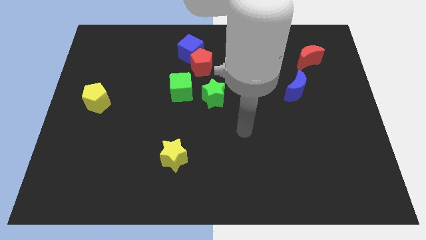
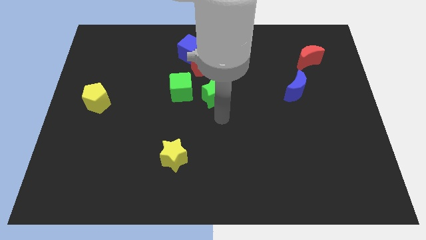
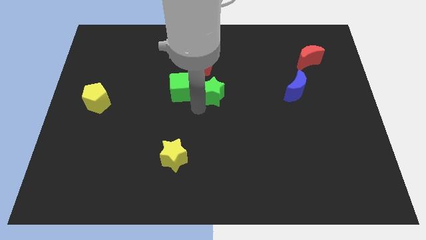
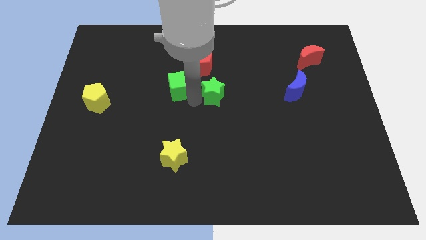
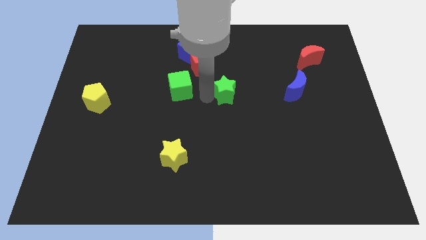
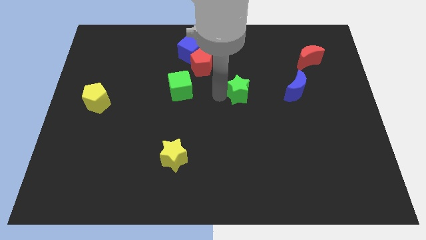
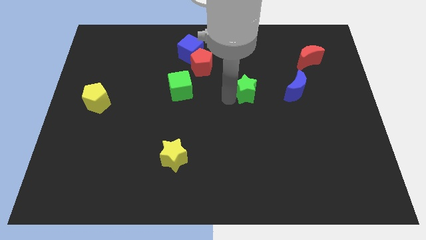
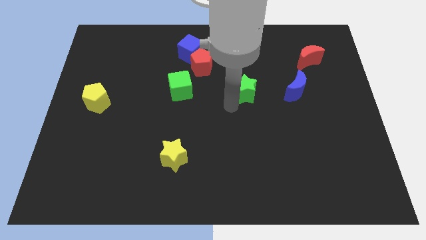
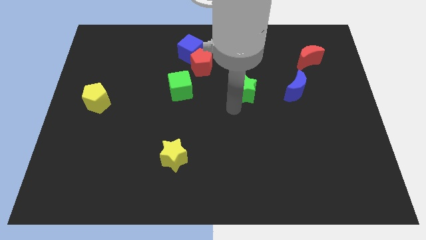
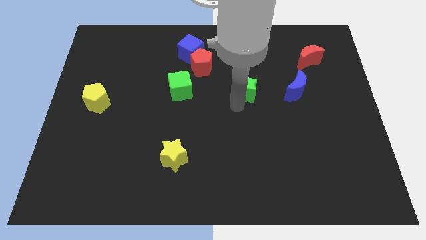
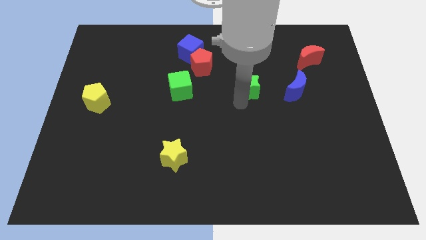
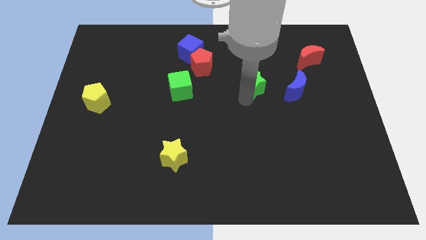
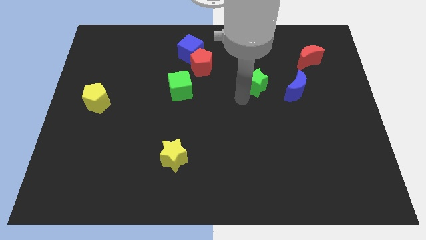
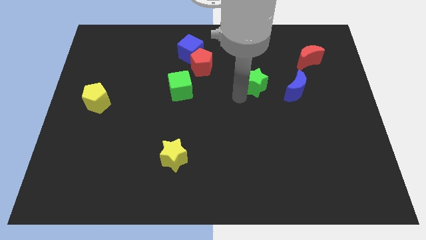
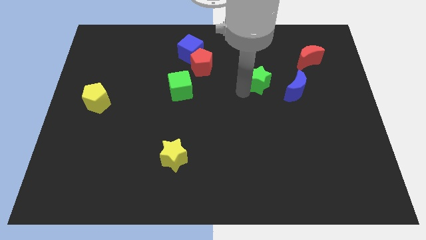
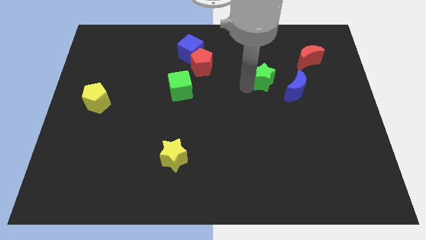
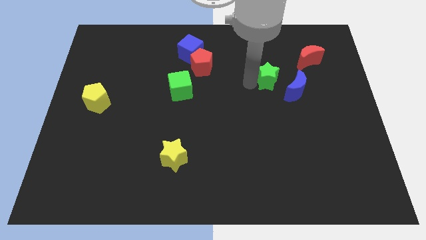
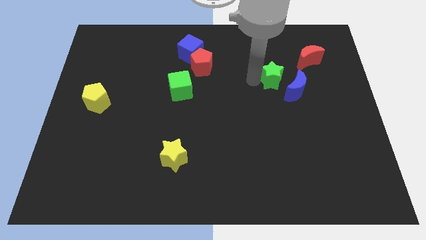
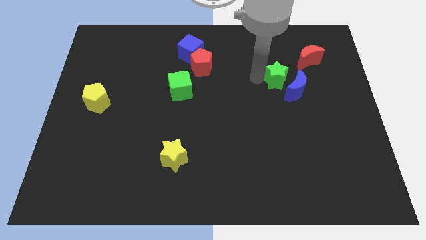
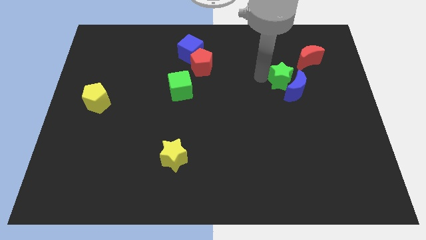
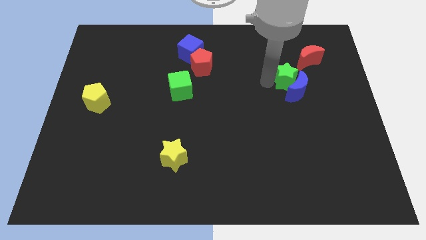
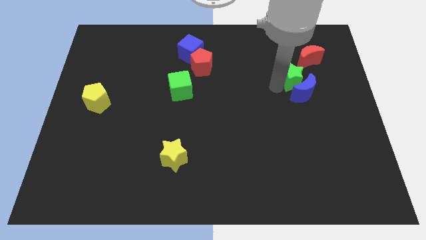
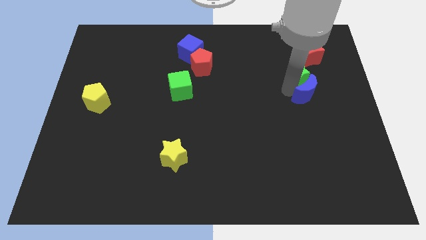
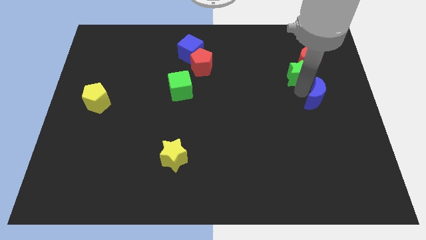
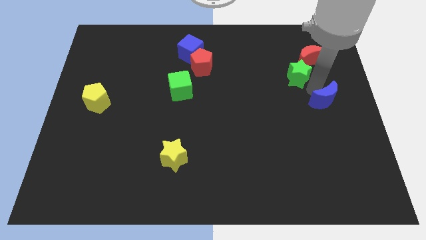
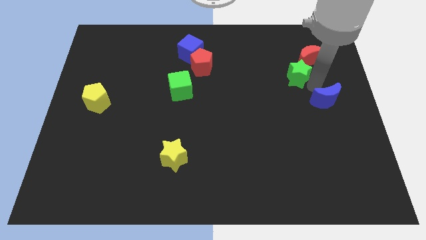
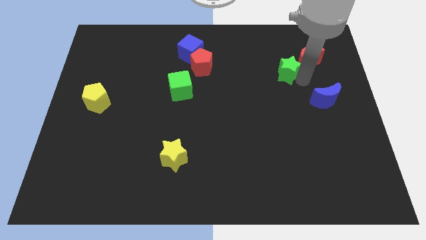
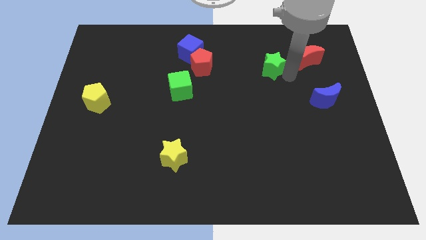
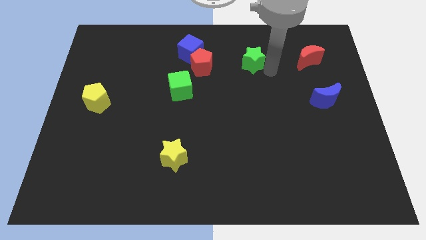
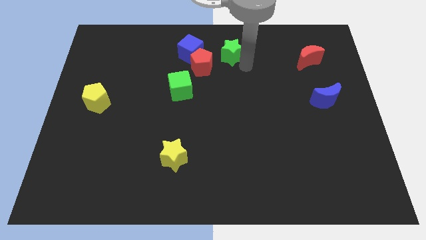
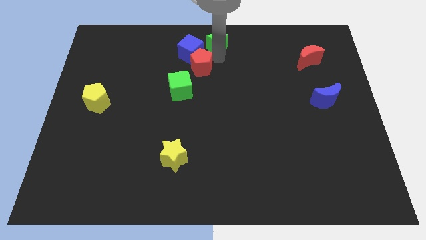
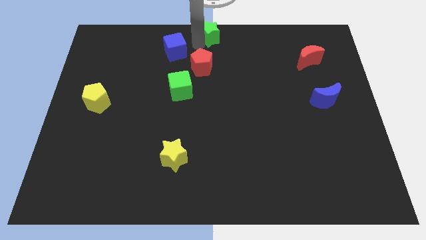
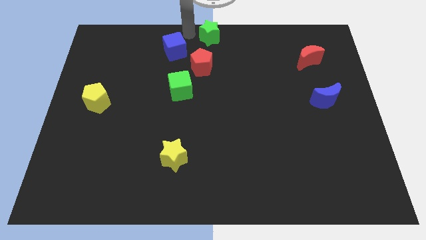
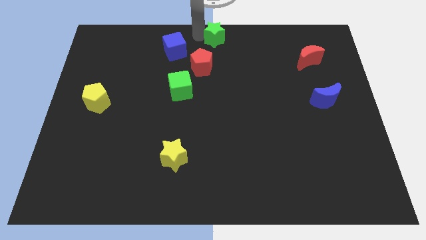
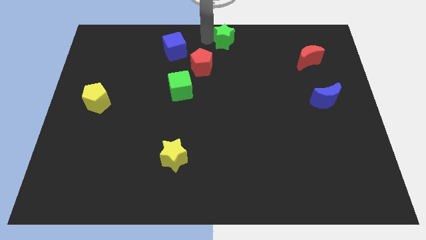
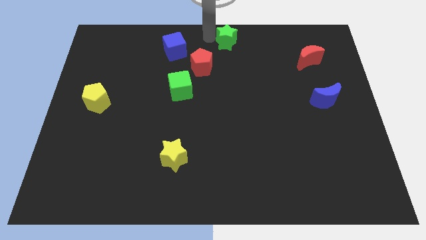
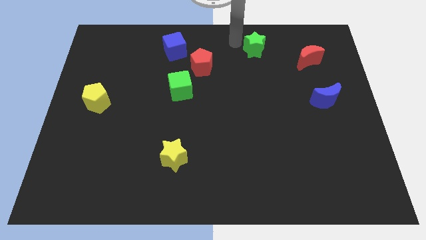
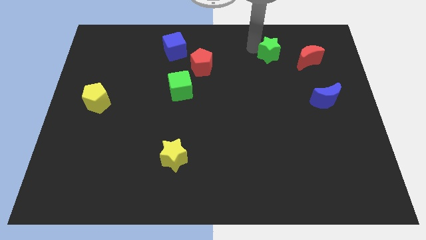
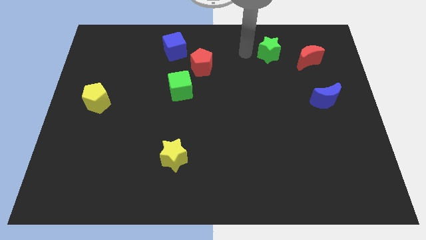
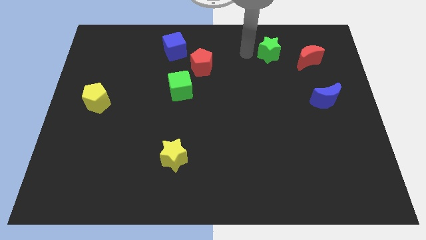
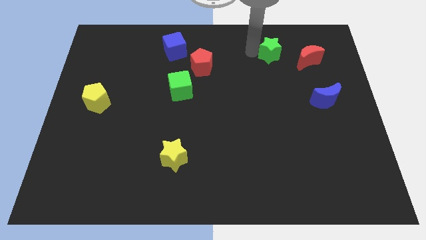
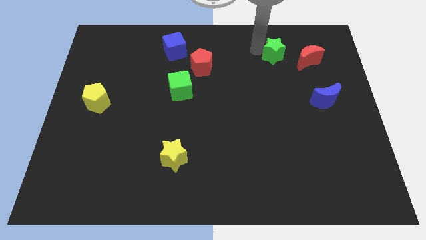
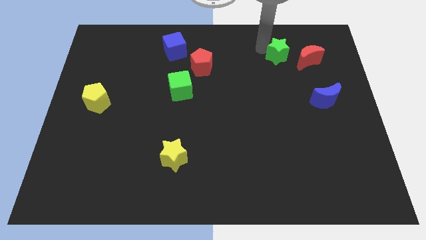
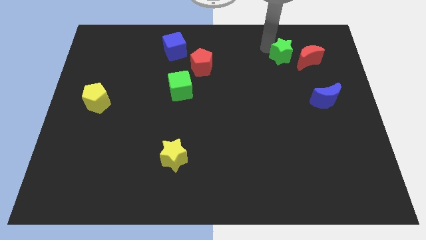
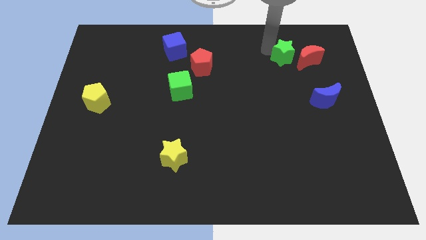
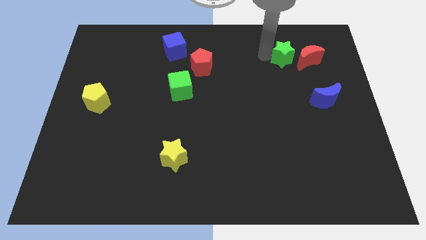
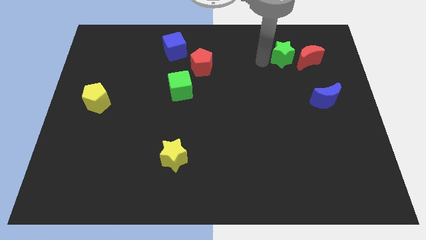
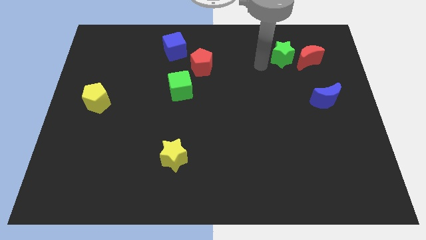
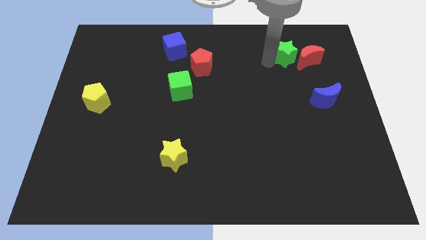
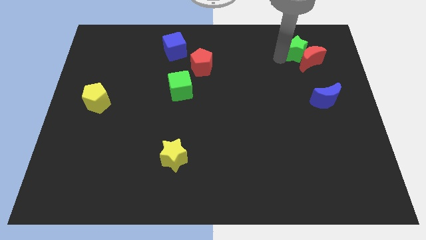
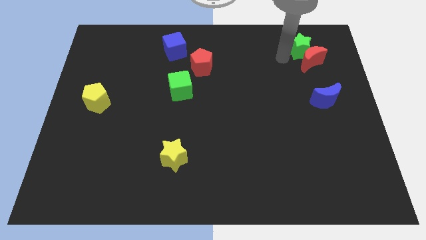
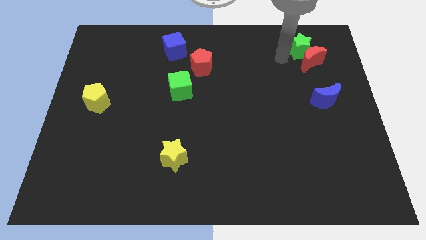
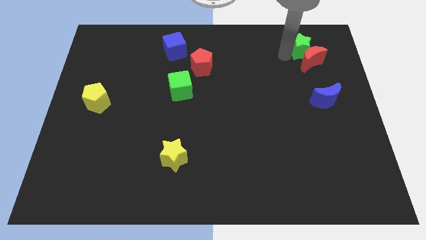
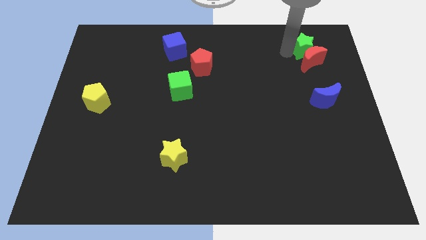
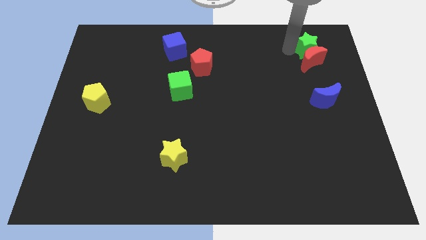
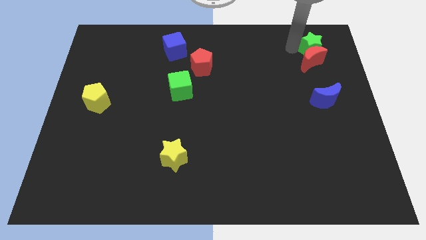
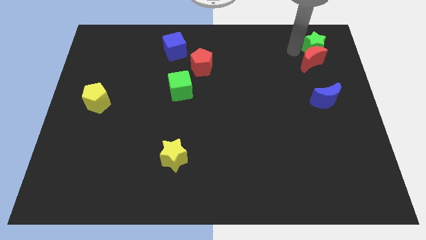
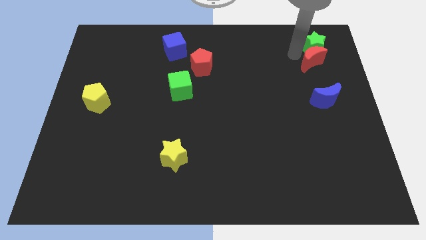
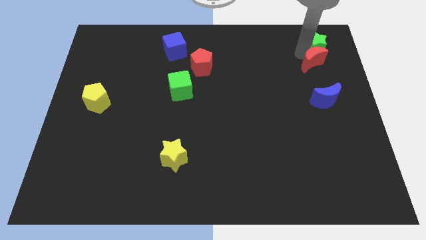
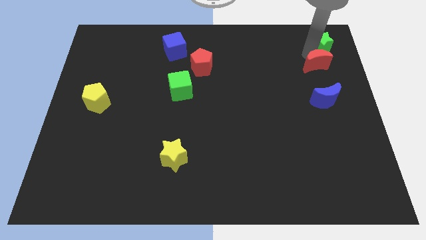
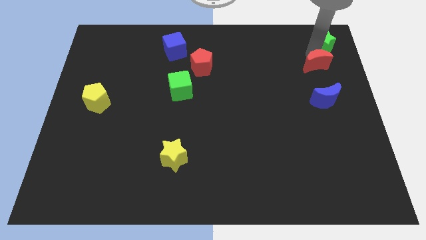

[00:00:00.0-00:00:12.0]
slide the green star to the upper right corner

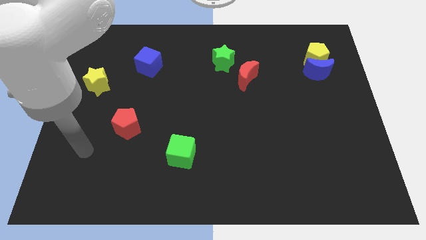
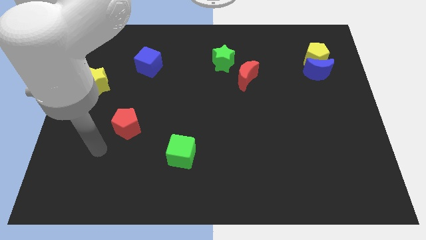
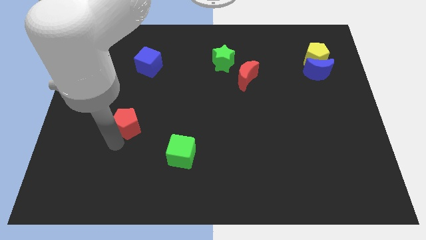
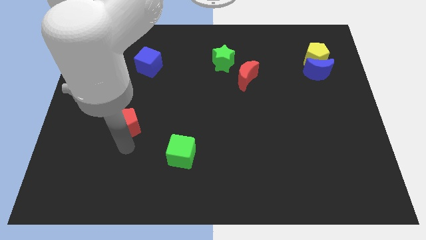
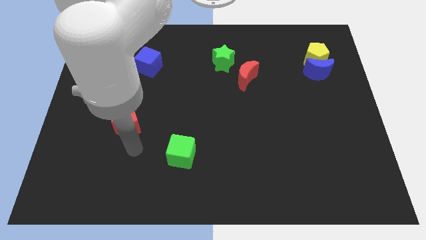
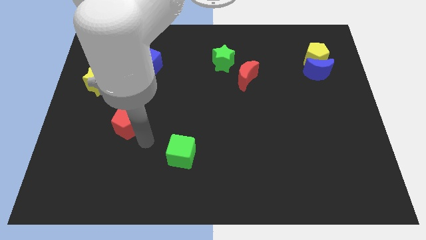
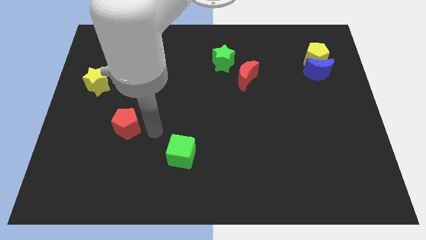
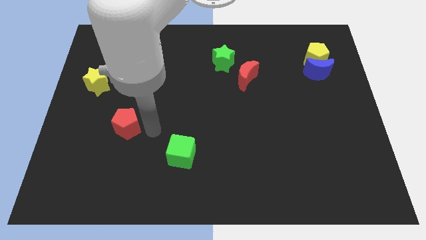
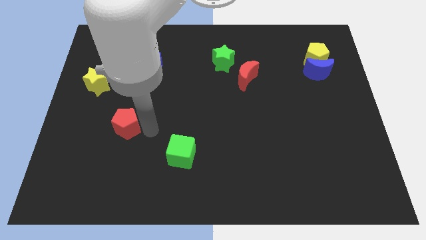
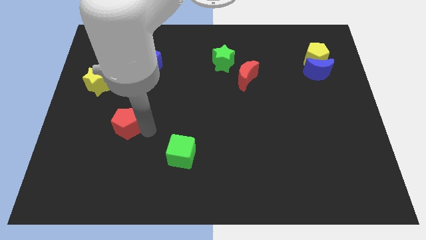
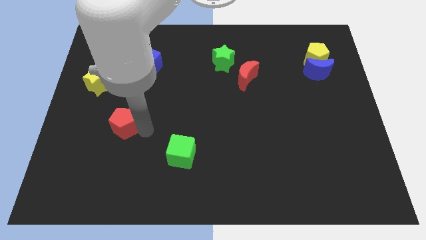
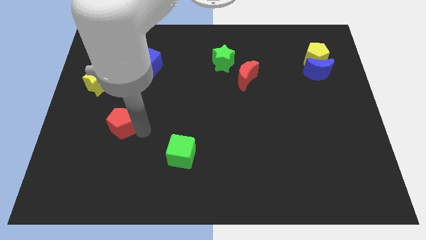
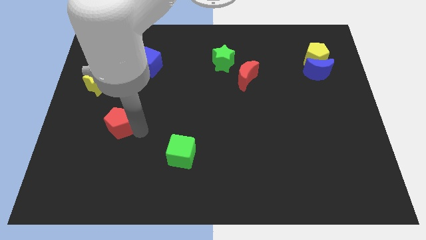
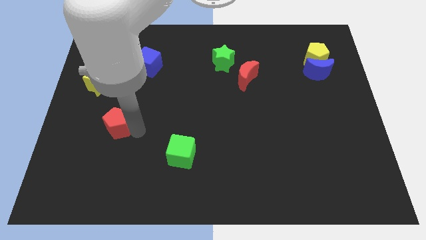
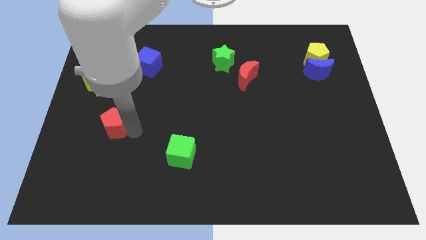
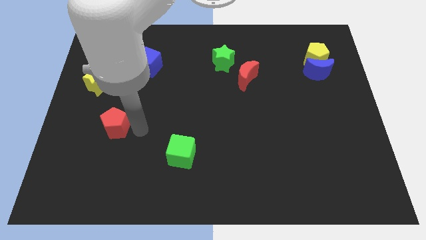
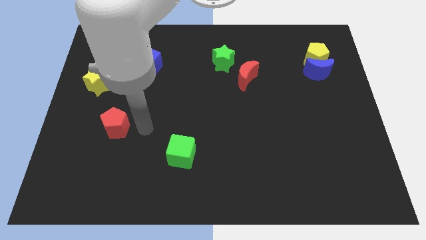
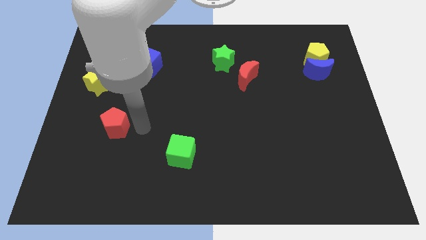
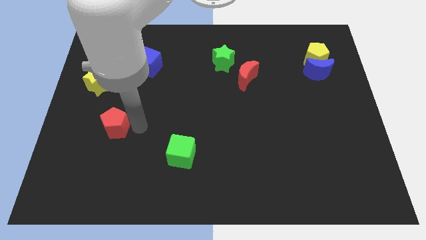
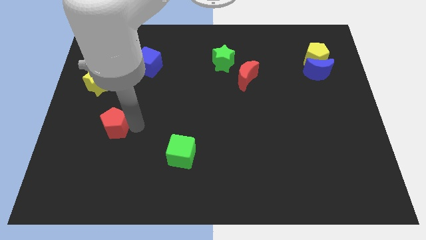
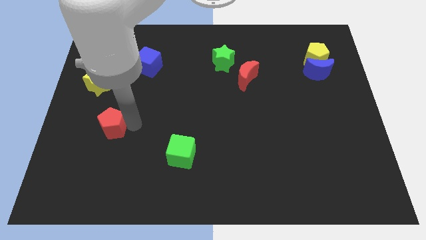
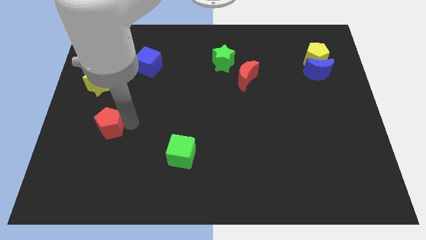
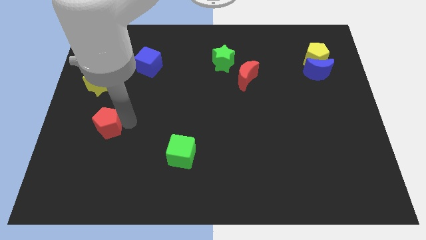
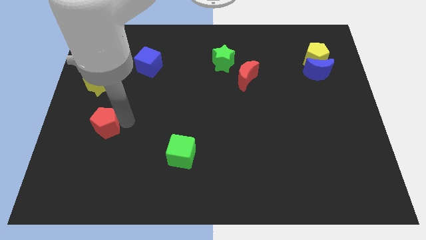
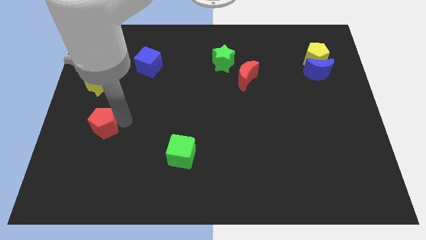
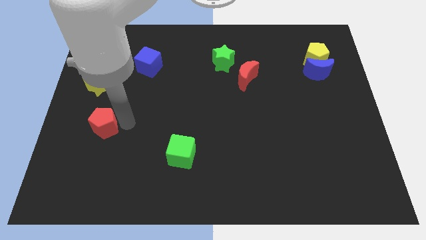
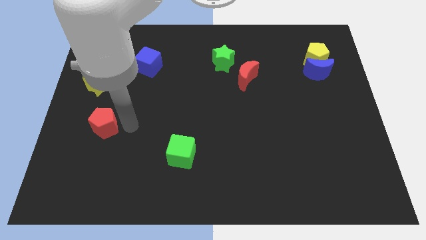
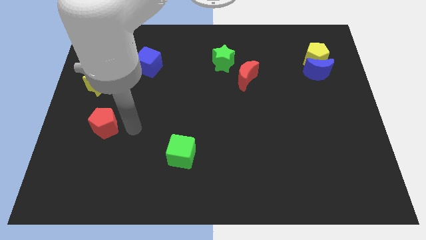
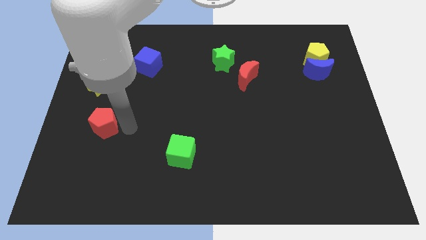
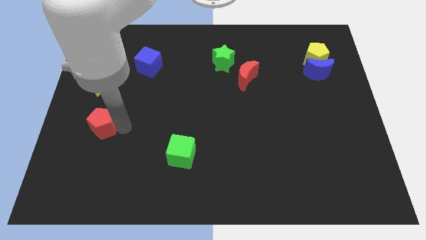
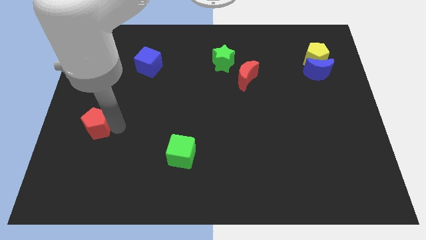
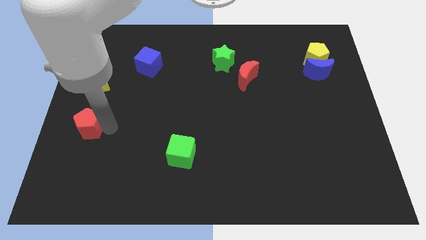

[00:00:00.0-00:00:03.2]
move the red pentagon to the left side
